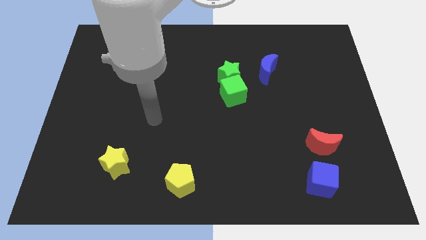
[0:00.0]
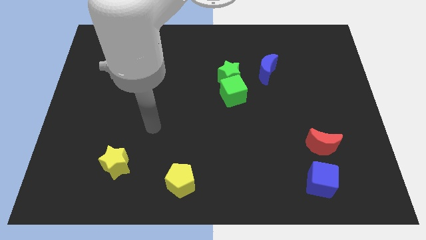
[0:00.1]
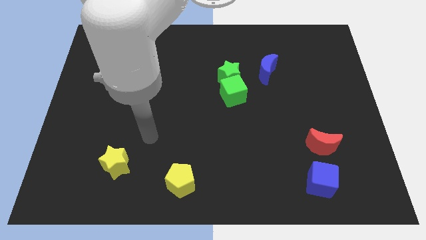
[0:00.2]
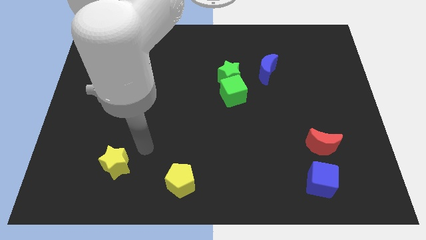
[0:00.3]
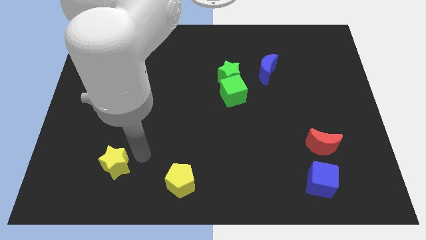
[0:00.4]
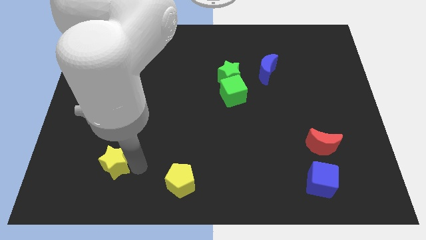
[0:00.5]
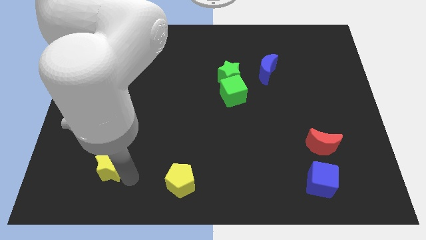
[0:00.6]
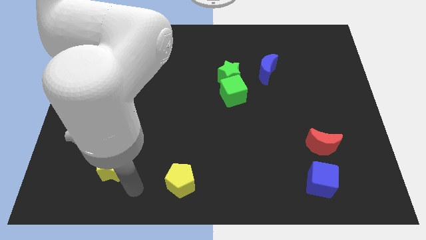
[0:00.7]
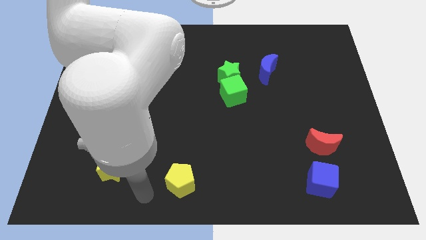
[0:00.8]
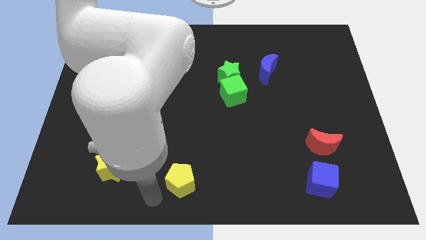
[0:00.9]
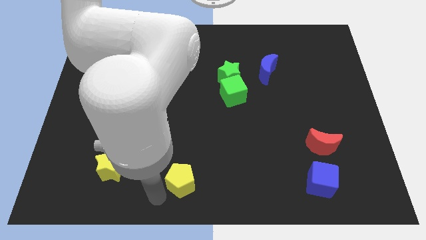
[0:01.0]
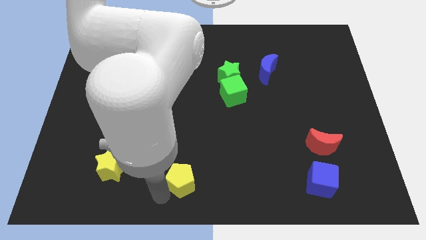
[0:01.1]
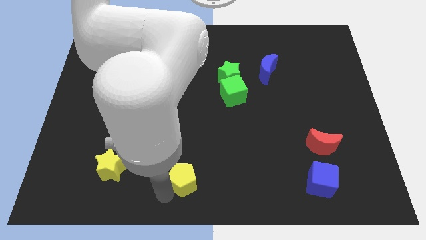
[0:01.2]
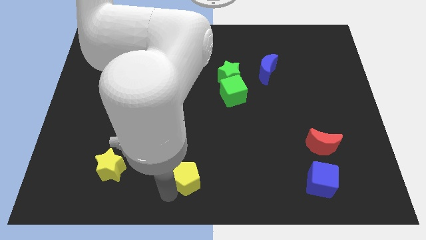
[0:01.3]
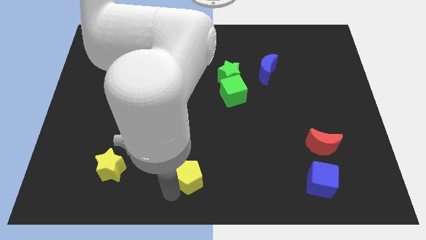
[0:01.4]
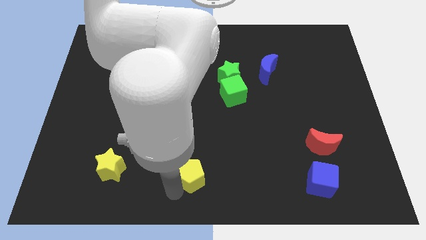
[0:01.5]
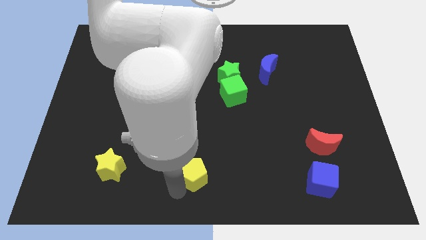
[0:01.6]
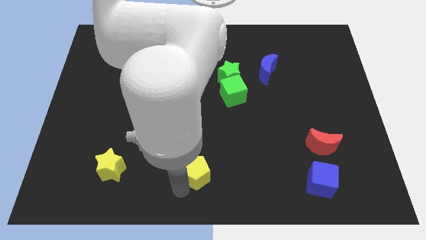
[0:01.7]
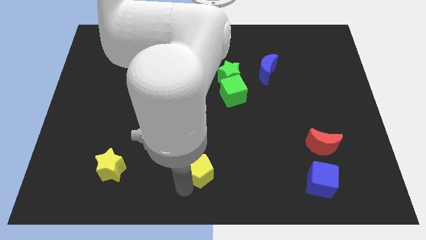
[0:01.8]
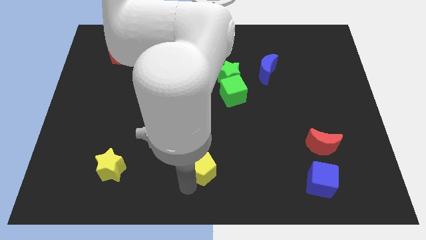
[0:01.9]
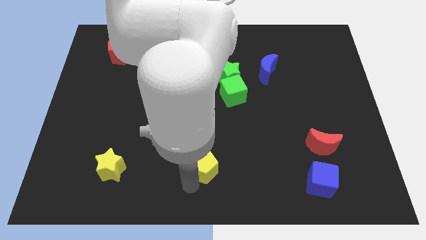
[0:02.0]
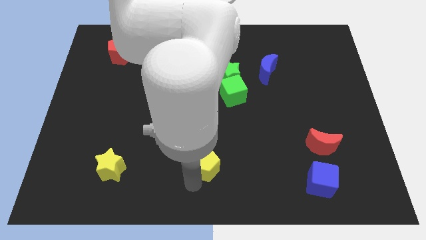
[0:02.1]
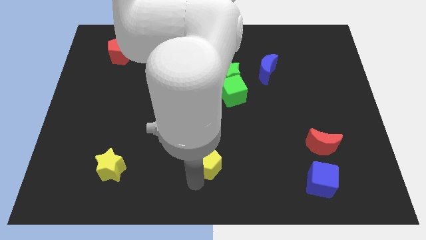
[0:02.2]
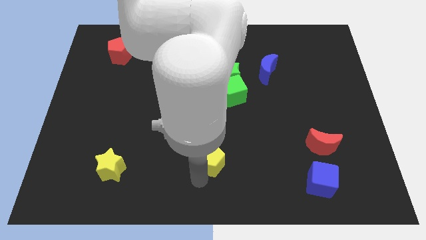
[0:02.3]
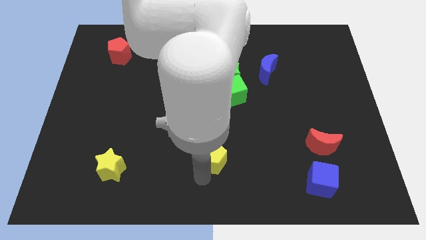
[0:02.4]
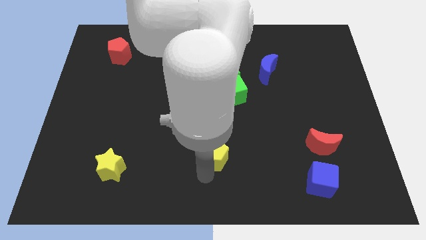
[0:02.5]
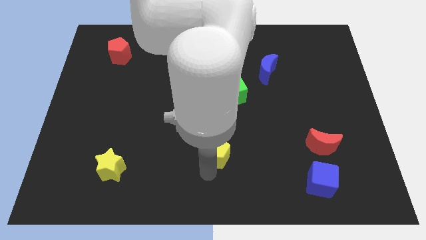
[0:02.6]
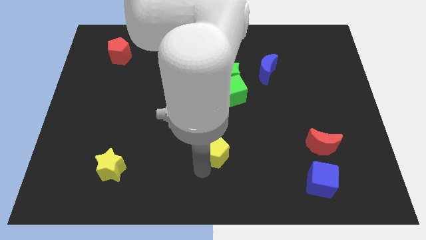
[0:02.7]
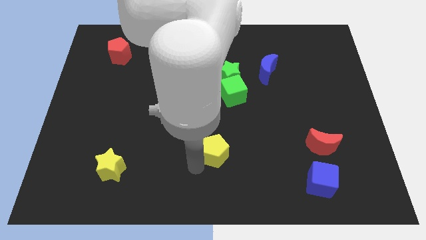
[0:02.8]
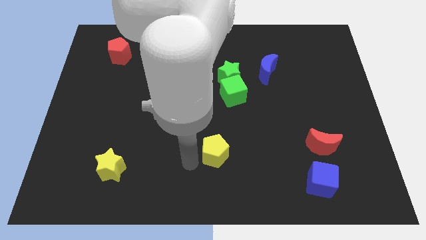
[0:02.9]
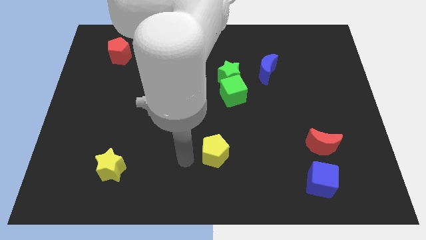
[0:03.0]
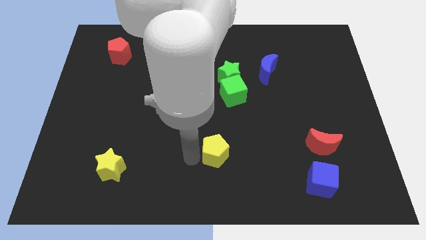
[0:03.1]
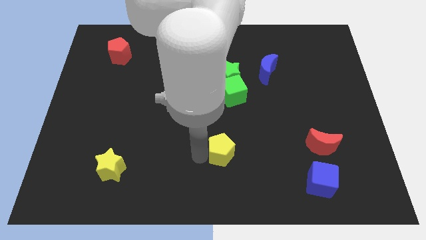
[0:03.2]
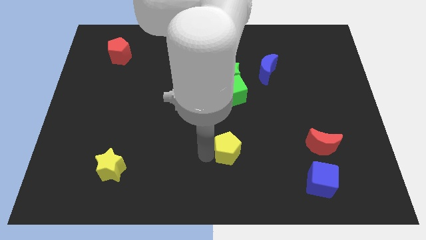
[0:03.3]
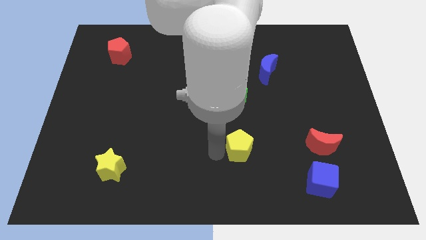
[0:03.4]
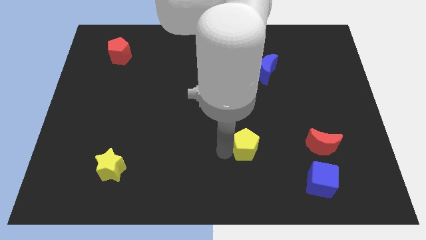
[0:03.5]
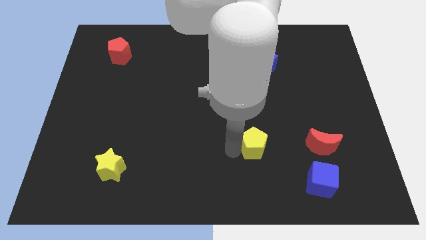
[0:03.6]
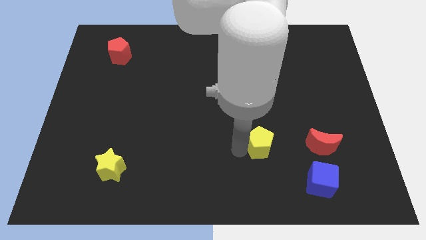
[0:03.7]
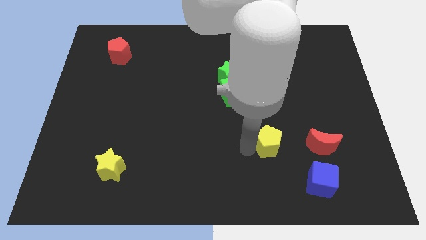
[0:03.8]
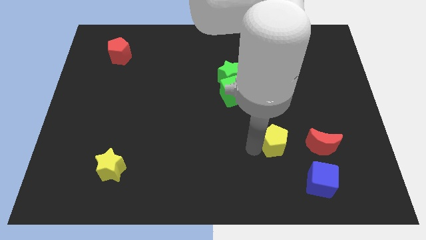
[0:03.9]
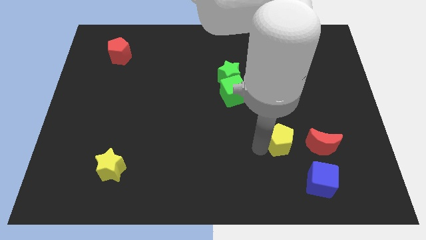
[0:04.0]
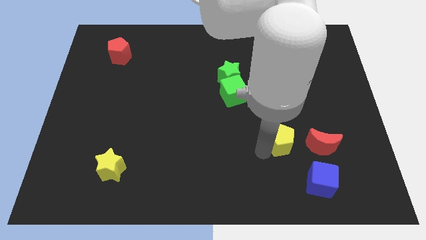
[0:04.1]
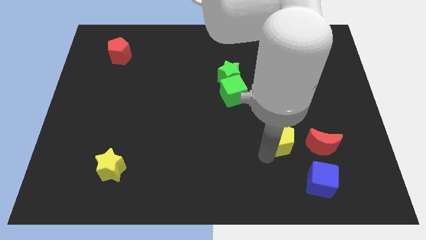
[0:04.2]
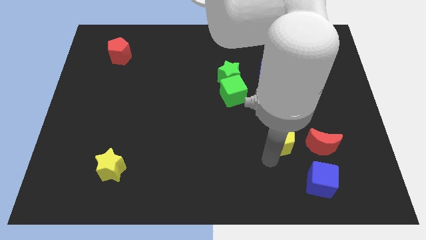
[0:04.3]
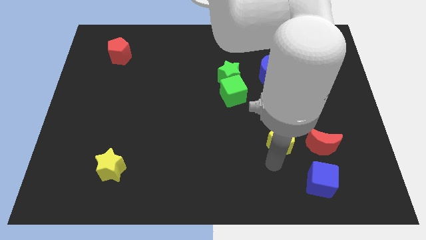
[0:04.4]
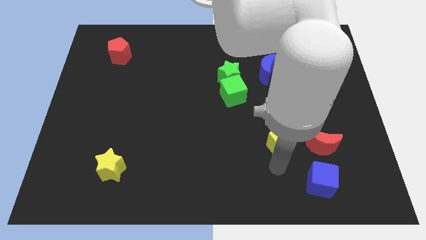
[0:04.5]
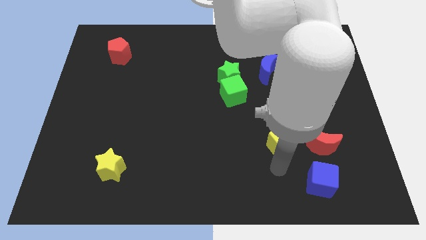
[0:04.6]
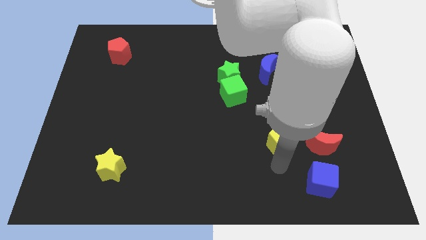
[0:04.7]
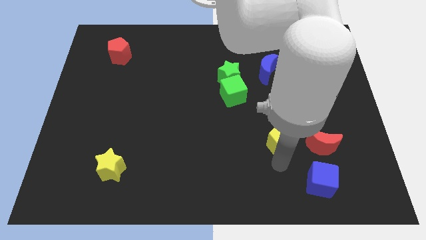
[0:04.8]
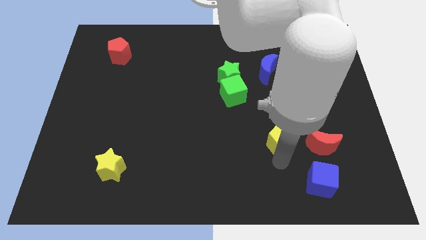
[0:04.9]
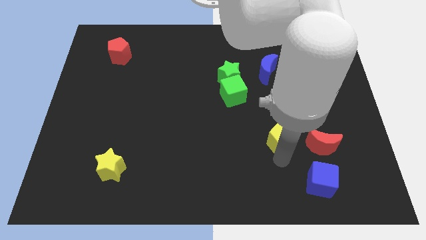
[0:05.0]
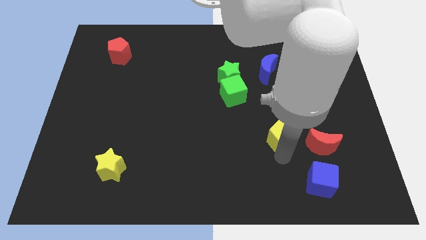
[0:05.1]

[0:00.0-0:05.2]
slide the yellow pentagon diagonally up and to the left of the red moon

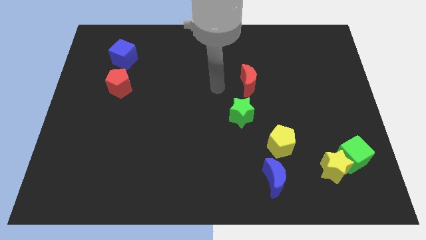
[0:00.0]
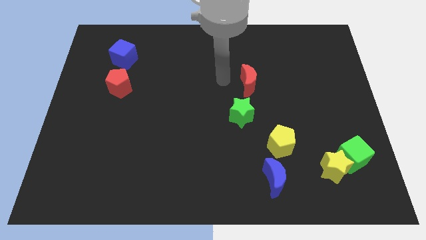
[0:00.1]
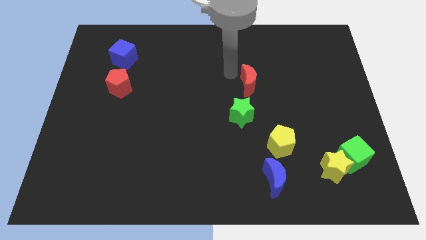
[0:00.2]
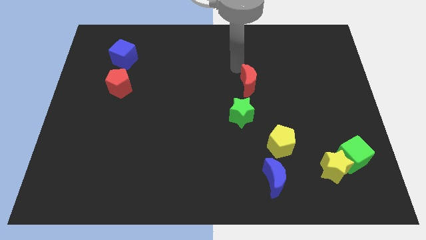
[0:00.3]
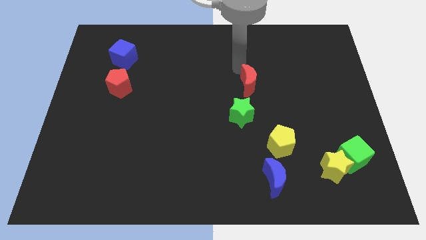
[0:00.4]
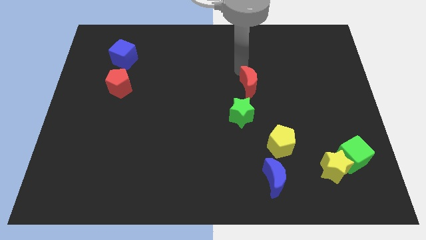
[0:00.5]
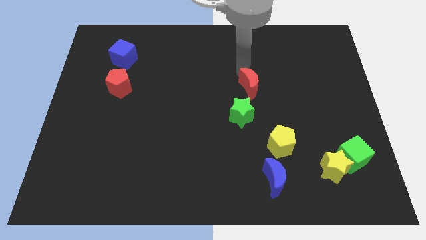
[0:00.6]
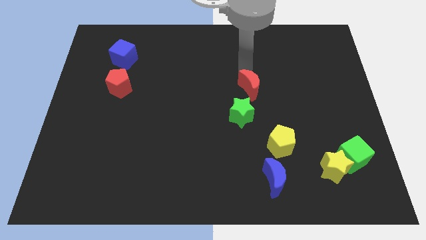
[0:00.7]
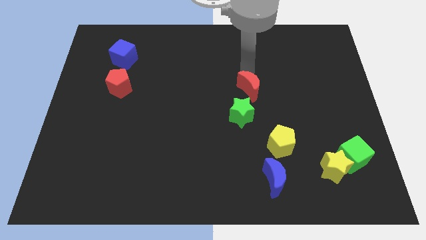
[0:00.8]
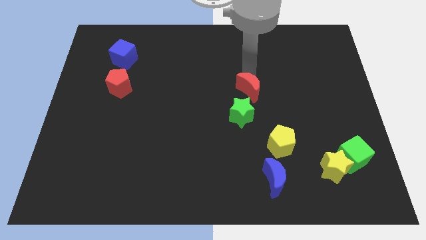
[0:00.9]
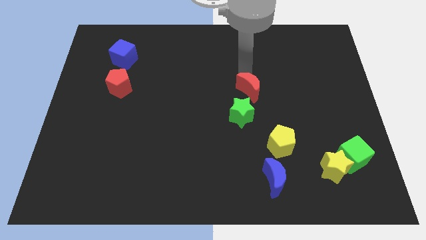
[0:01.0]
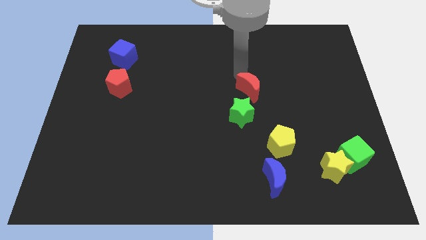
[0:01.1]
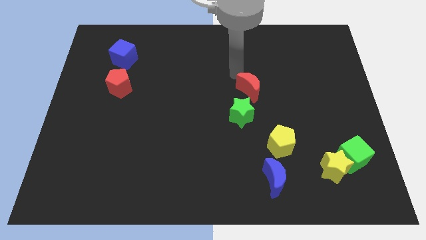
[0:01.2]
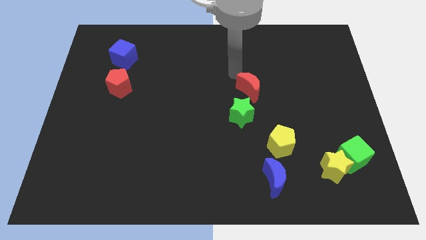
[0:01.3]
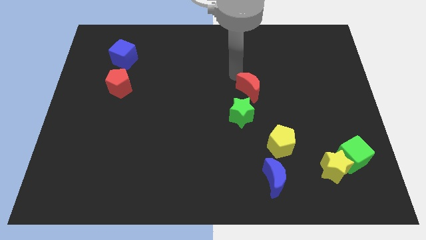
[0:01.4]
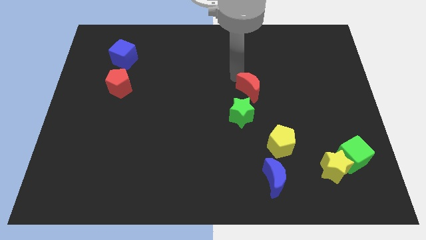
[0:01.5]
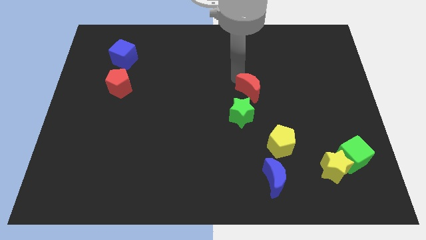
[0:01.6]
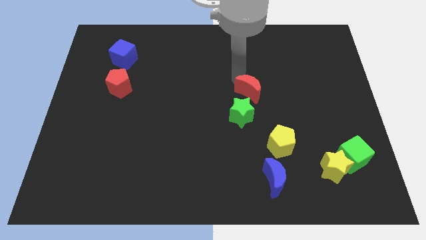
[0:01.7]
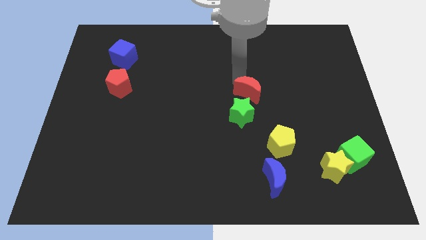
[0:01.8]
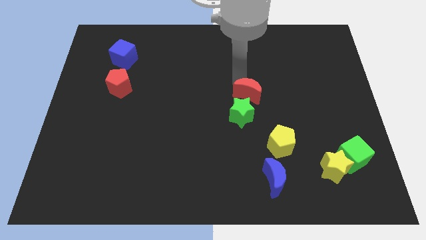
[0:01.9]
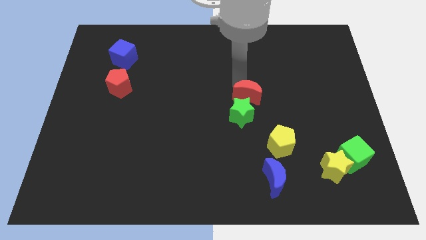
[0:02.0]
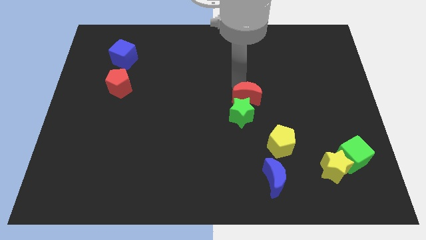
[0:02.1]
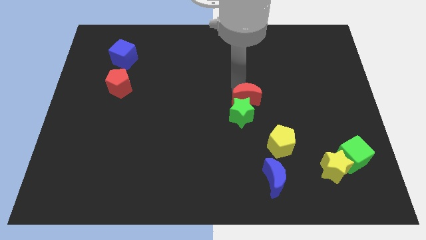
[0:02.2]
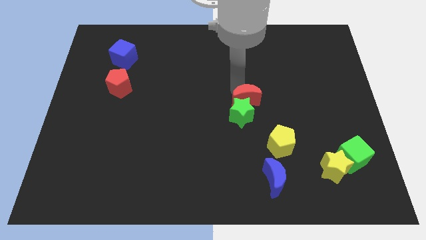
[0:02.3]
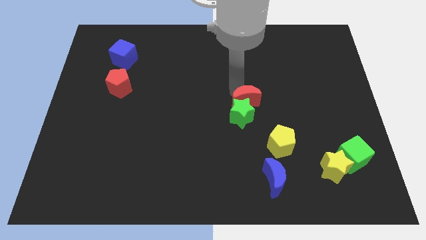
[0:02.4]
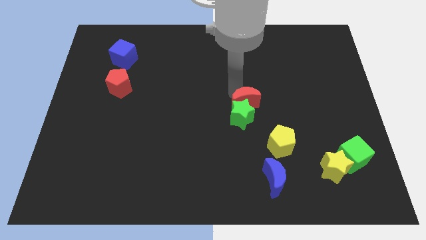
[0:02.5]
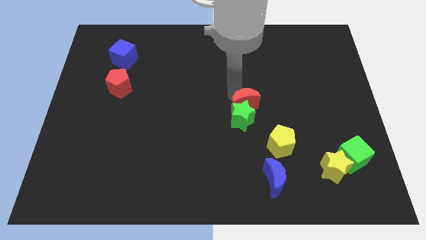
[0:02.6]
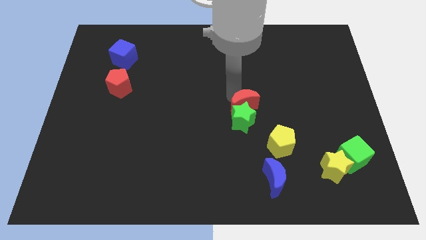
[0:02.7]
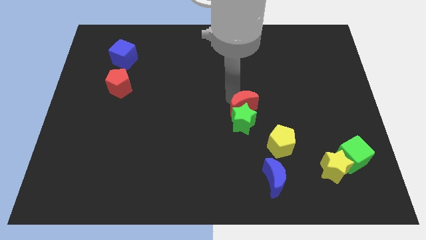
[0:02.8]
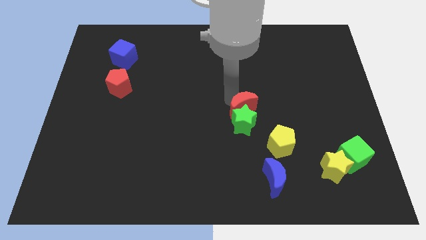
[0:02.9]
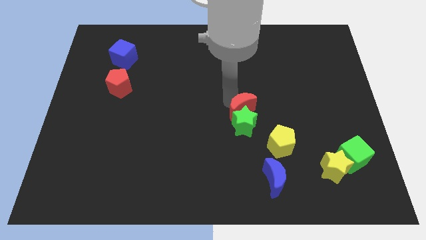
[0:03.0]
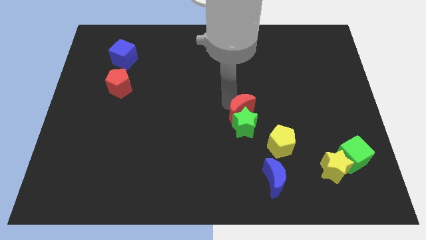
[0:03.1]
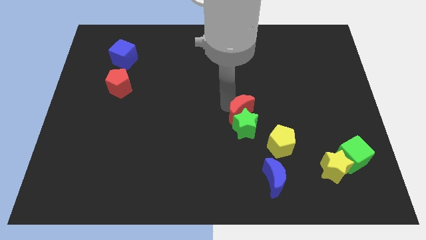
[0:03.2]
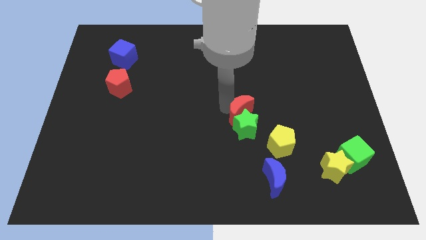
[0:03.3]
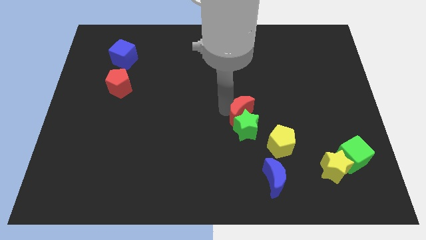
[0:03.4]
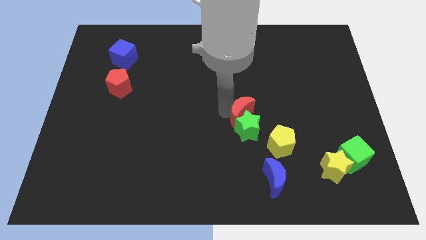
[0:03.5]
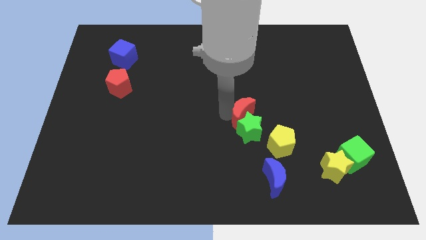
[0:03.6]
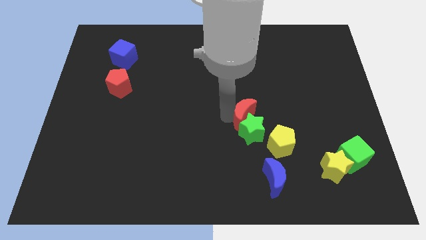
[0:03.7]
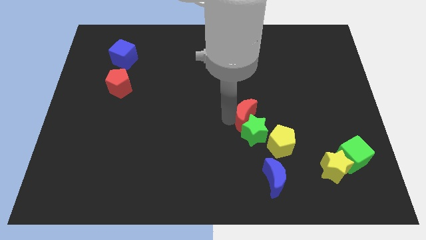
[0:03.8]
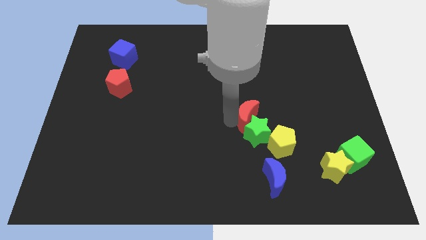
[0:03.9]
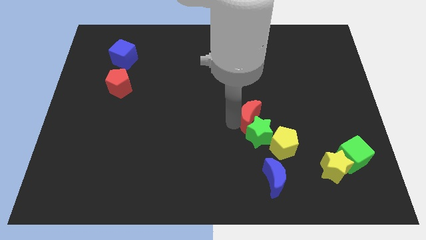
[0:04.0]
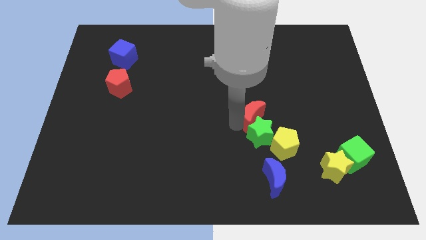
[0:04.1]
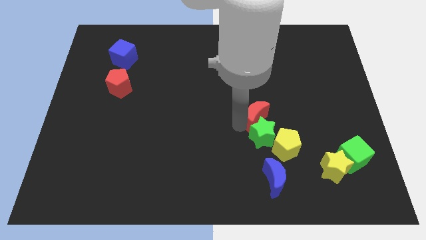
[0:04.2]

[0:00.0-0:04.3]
put the red moon to the top of the blue moon
